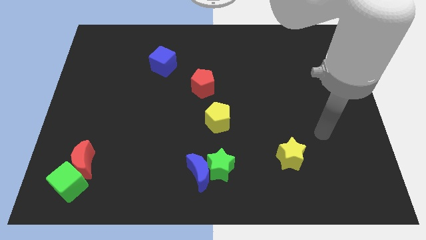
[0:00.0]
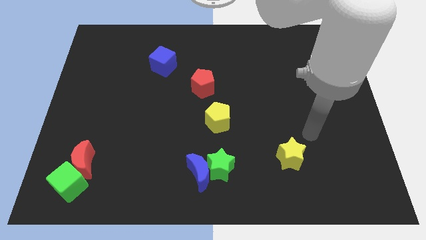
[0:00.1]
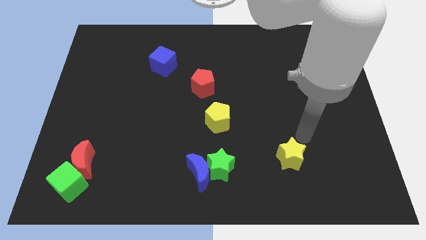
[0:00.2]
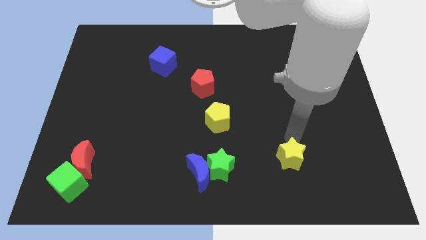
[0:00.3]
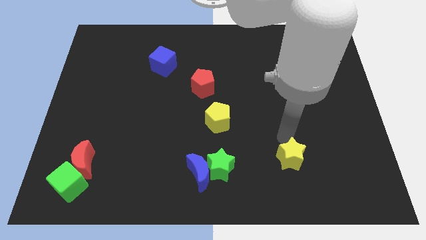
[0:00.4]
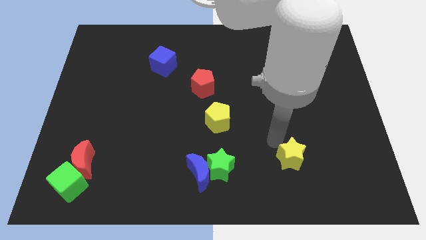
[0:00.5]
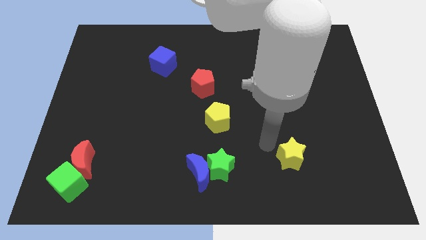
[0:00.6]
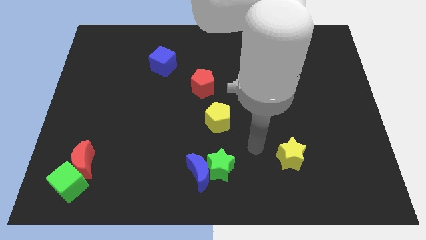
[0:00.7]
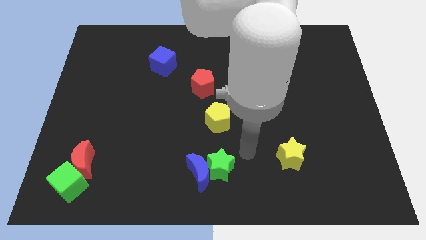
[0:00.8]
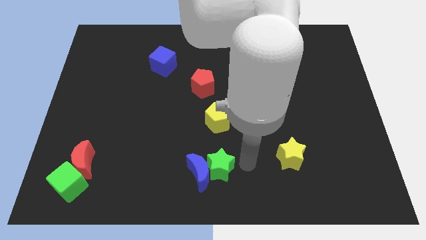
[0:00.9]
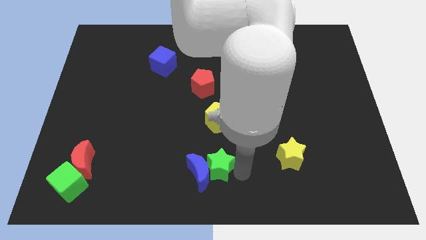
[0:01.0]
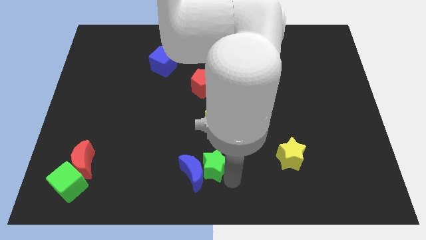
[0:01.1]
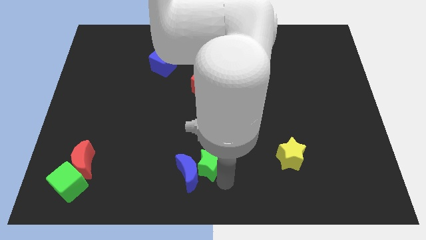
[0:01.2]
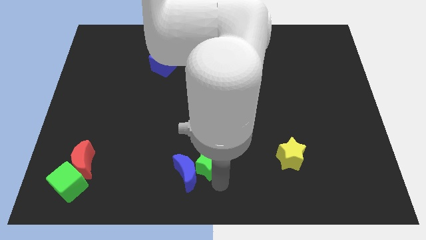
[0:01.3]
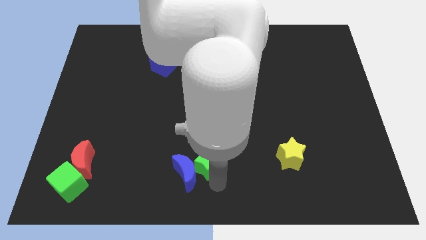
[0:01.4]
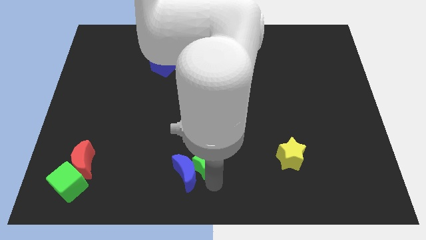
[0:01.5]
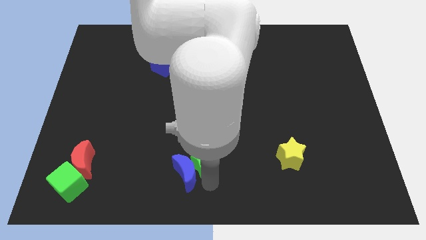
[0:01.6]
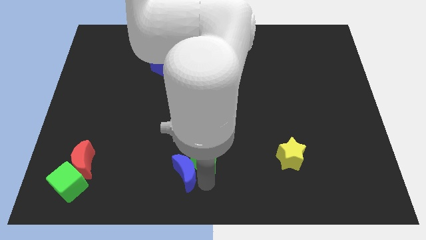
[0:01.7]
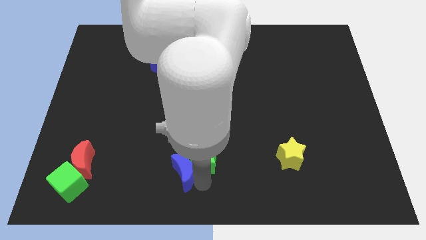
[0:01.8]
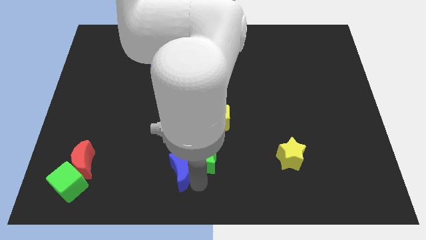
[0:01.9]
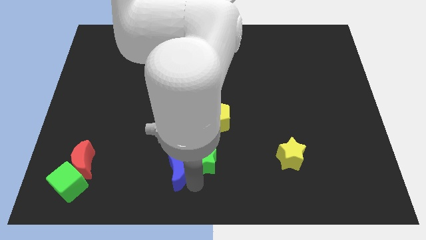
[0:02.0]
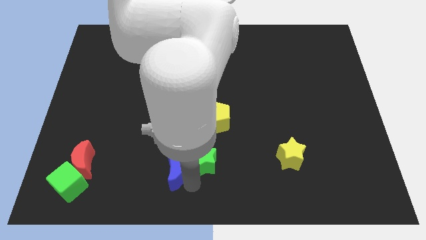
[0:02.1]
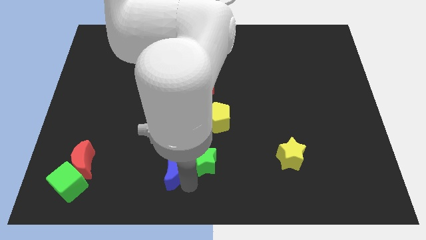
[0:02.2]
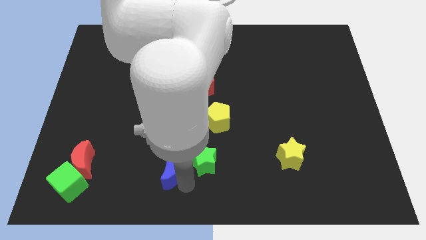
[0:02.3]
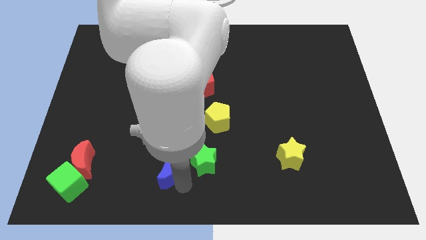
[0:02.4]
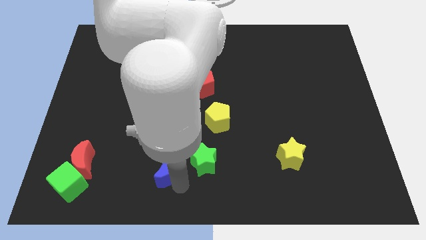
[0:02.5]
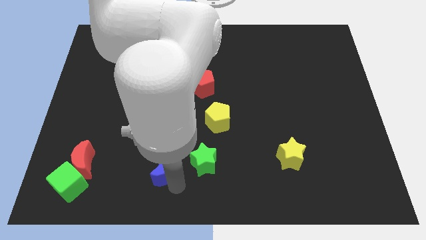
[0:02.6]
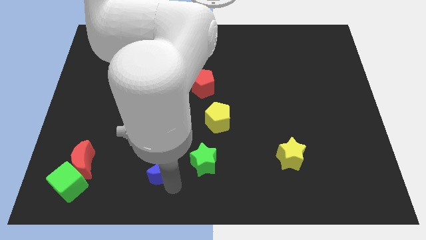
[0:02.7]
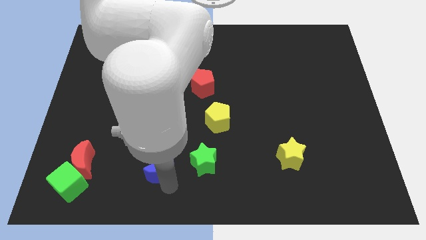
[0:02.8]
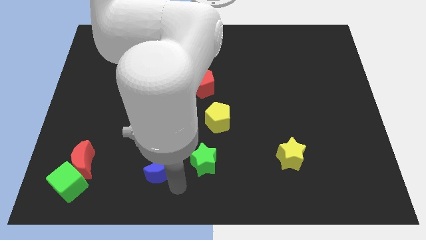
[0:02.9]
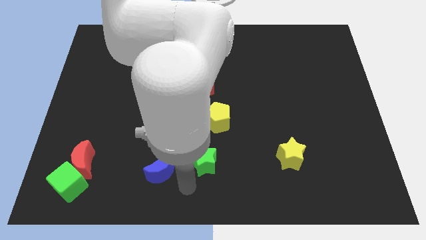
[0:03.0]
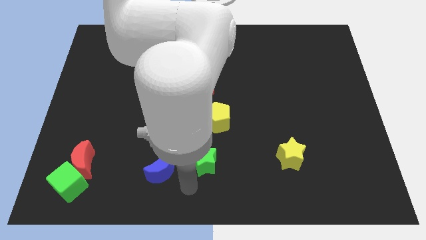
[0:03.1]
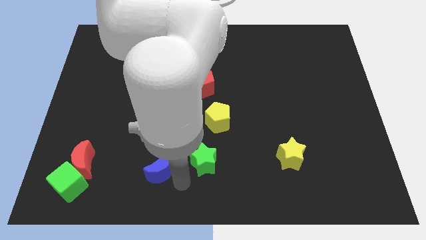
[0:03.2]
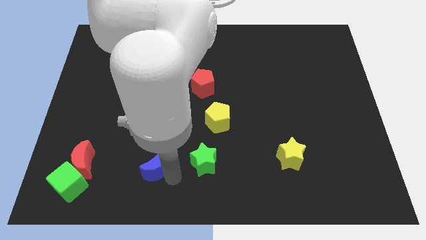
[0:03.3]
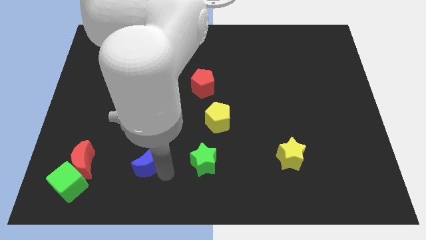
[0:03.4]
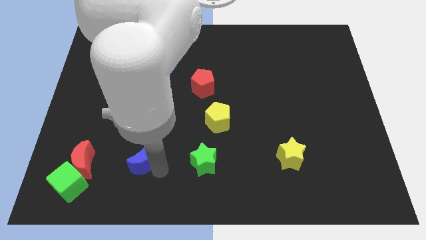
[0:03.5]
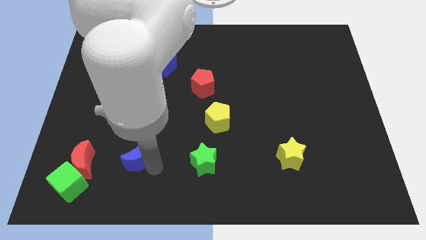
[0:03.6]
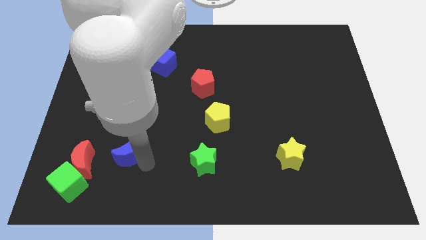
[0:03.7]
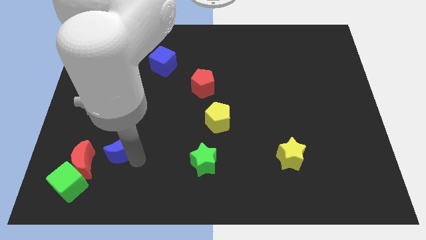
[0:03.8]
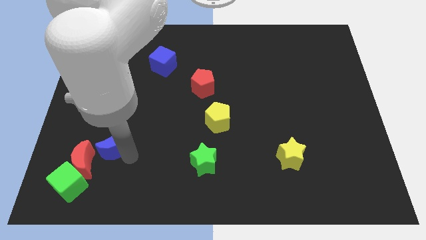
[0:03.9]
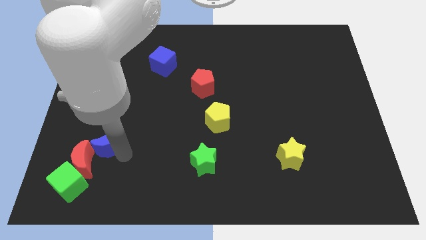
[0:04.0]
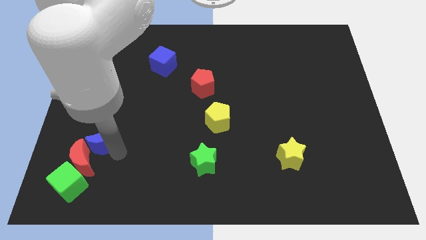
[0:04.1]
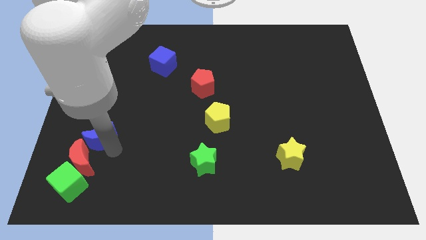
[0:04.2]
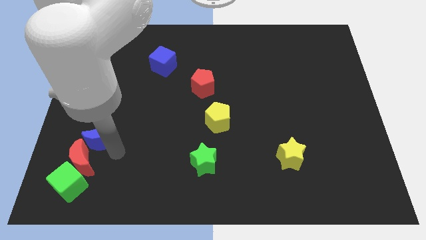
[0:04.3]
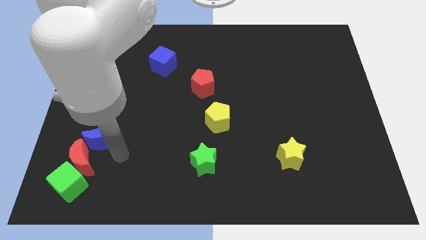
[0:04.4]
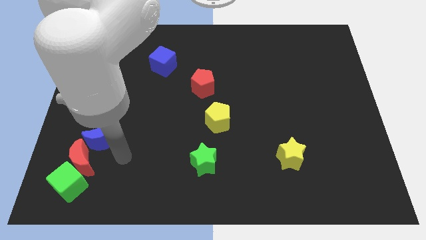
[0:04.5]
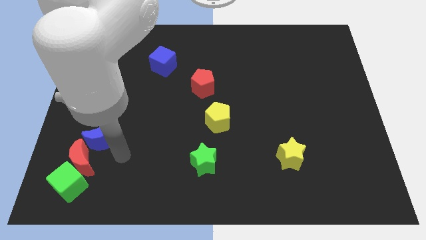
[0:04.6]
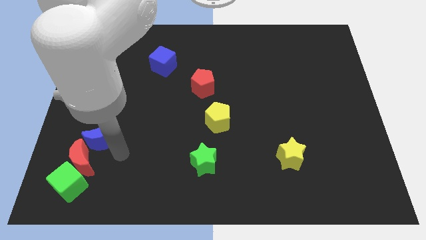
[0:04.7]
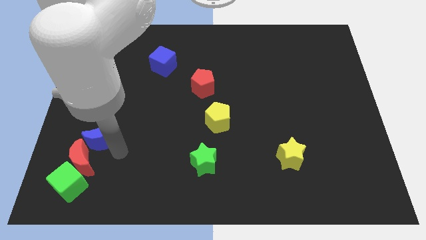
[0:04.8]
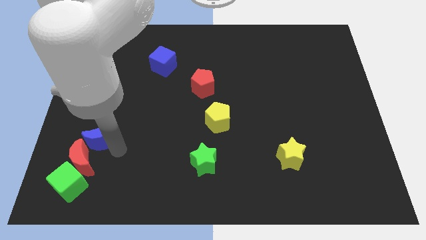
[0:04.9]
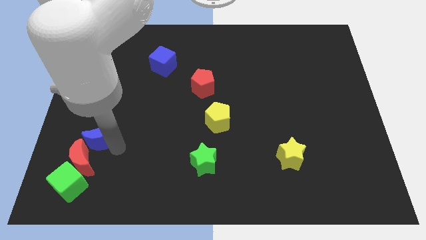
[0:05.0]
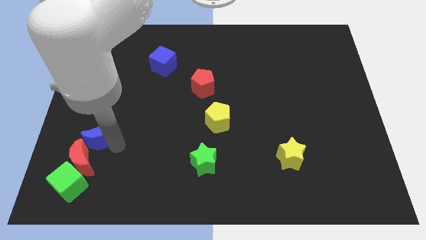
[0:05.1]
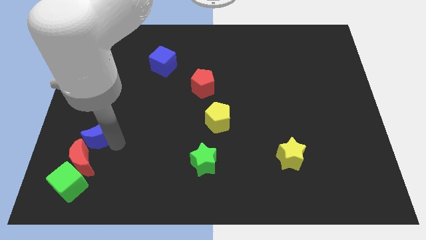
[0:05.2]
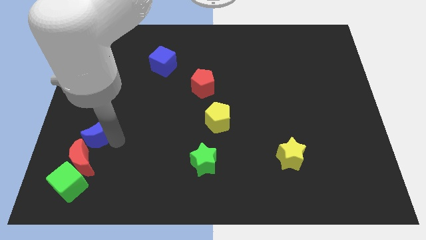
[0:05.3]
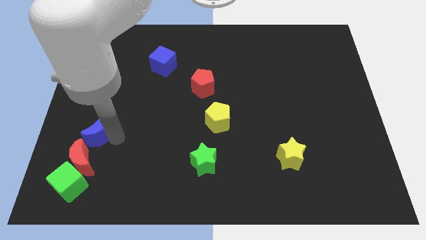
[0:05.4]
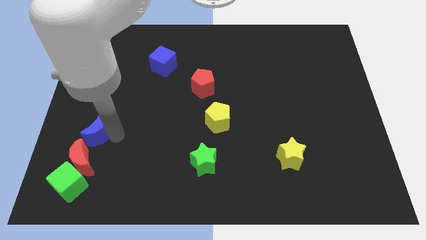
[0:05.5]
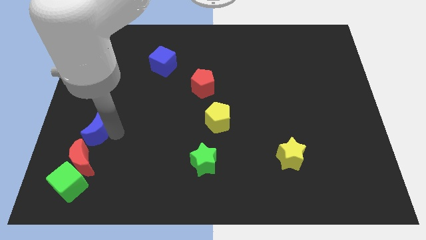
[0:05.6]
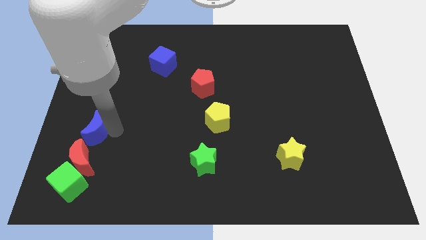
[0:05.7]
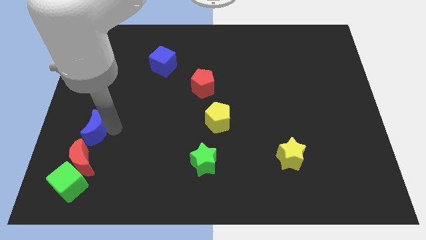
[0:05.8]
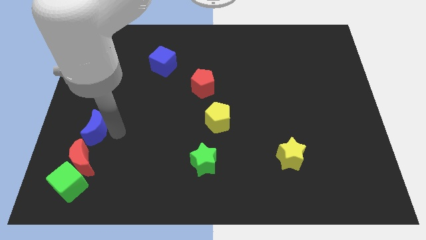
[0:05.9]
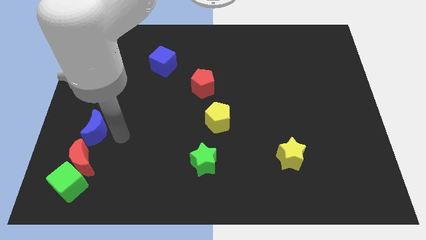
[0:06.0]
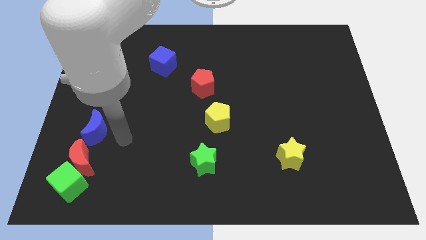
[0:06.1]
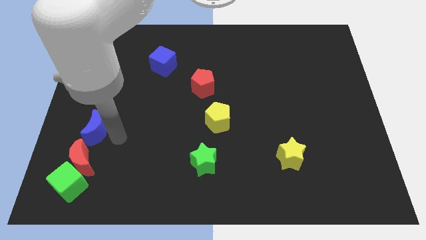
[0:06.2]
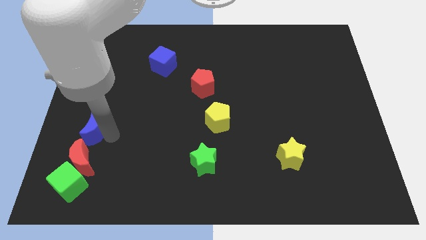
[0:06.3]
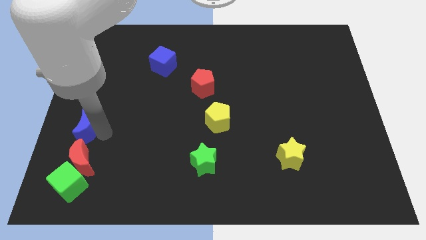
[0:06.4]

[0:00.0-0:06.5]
move the blue moon to the left side of the board
